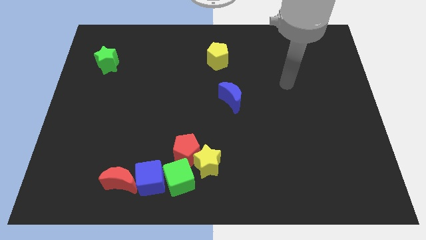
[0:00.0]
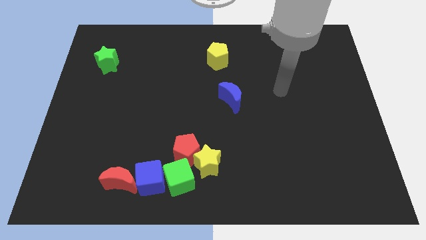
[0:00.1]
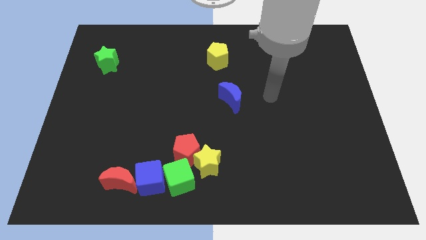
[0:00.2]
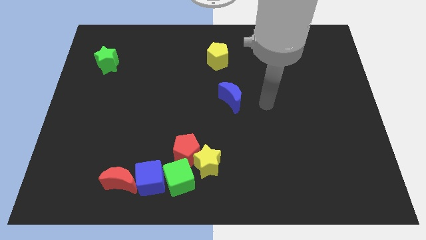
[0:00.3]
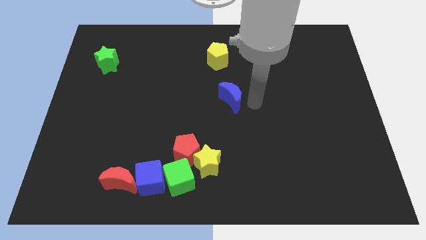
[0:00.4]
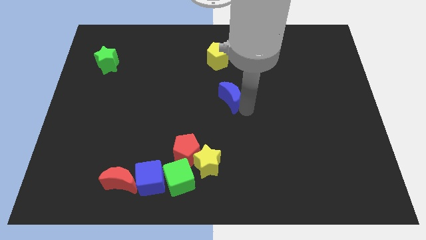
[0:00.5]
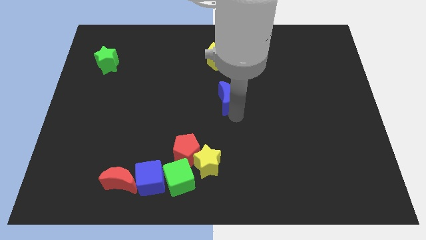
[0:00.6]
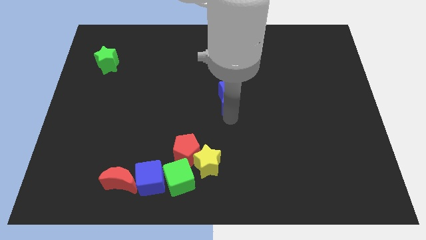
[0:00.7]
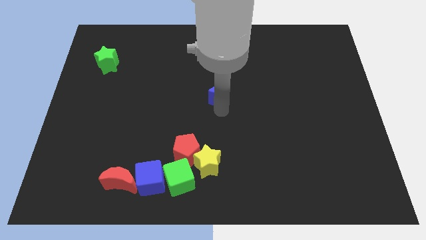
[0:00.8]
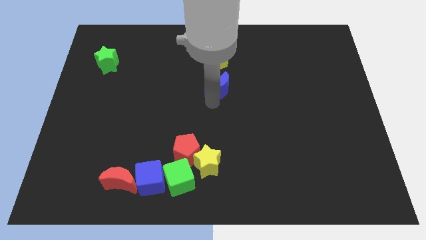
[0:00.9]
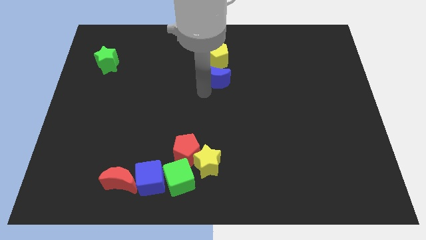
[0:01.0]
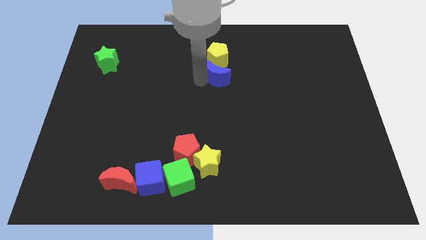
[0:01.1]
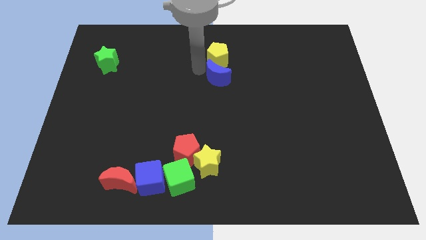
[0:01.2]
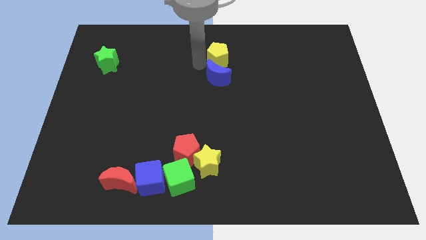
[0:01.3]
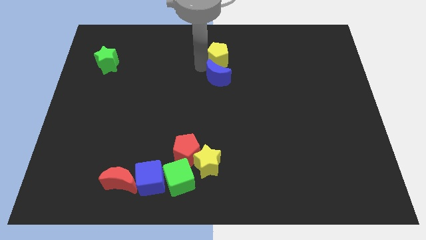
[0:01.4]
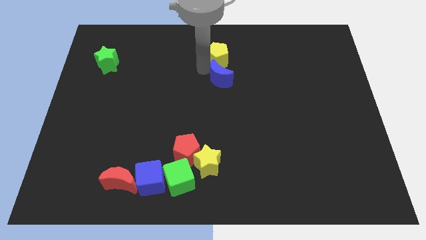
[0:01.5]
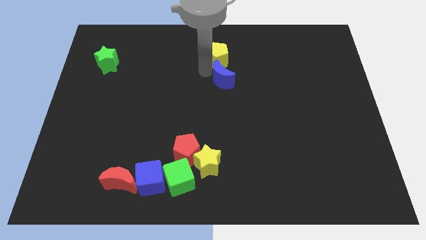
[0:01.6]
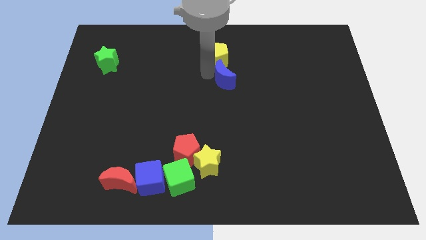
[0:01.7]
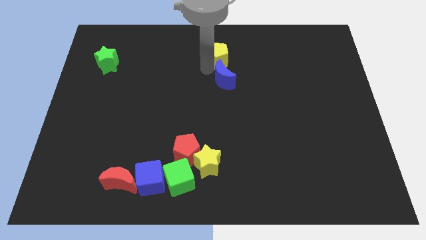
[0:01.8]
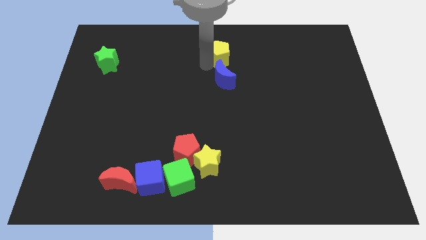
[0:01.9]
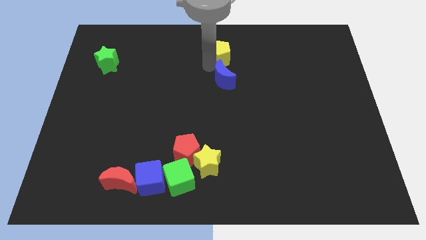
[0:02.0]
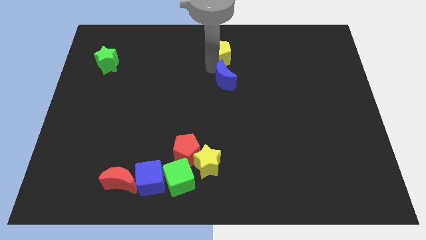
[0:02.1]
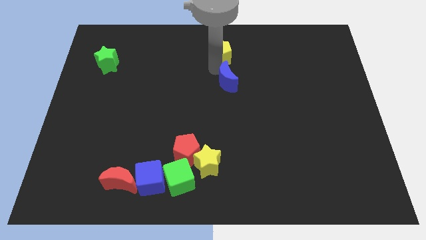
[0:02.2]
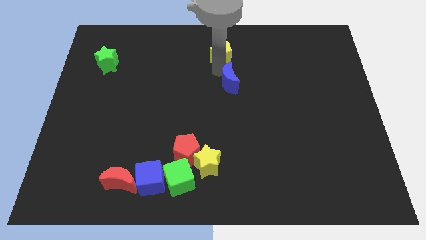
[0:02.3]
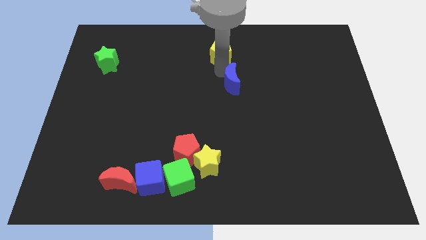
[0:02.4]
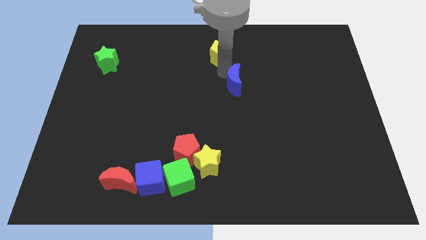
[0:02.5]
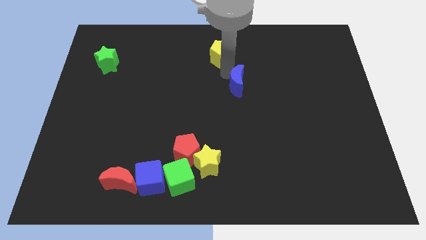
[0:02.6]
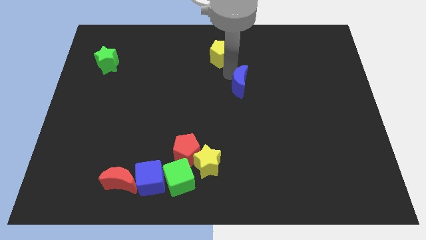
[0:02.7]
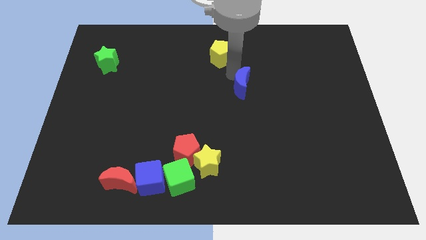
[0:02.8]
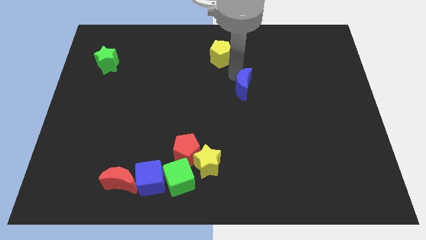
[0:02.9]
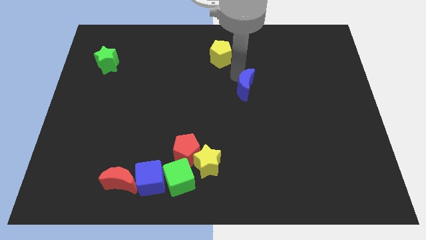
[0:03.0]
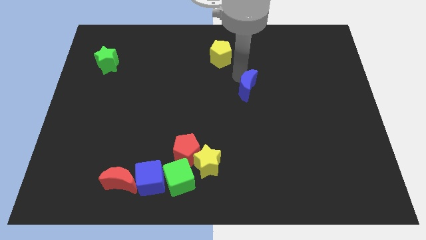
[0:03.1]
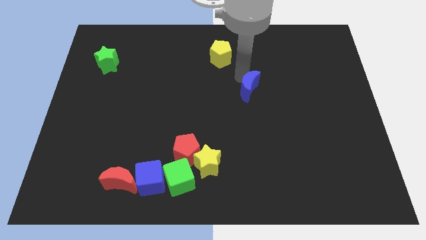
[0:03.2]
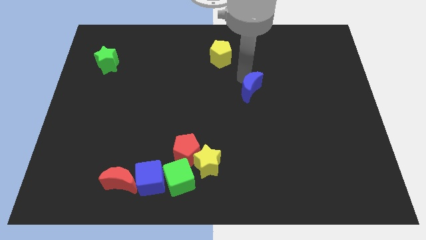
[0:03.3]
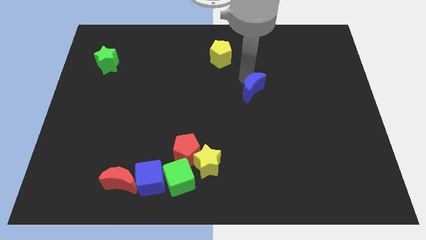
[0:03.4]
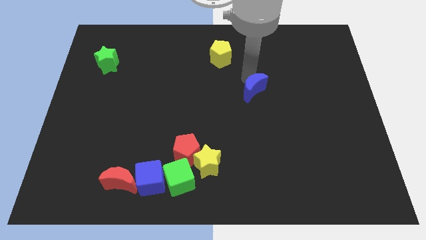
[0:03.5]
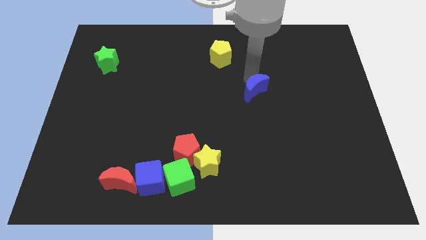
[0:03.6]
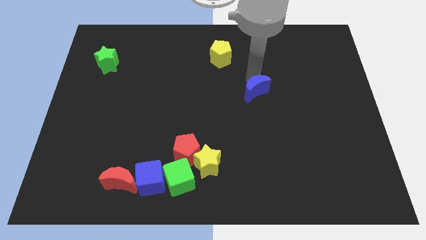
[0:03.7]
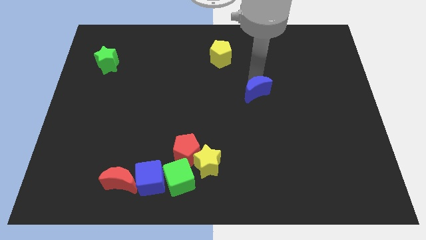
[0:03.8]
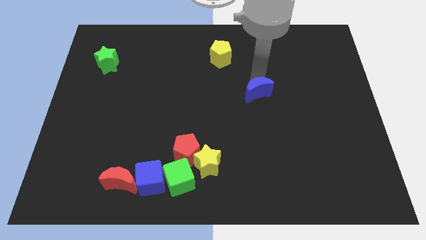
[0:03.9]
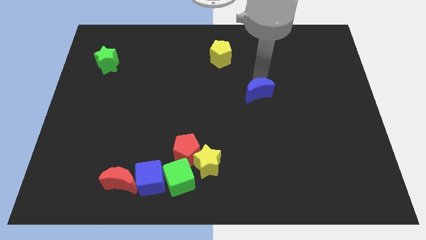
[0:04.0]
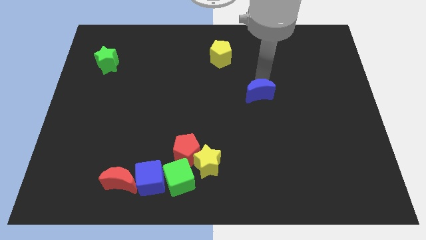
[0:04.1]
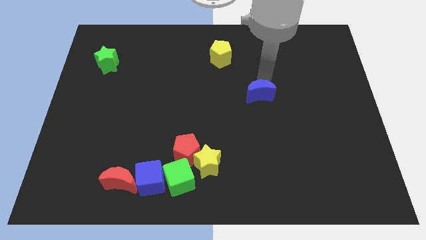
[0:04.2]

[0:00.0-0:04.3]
move the blue moon slightly right

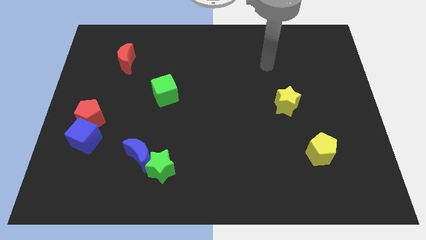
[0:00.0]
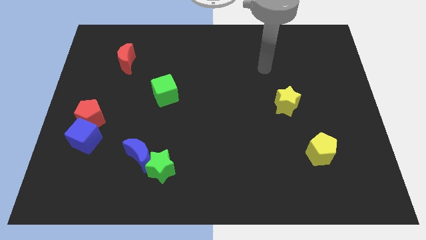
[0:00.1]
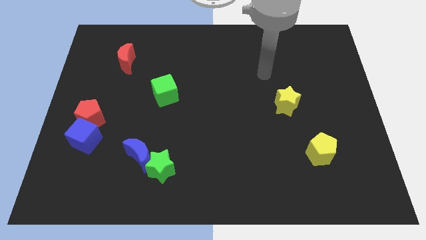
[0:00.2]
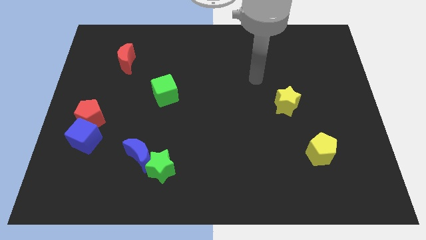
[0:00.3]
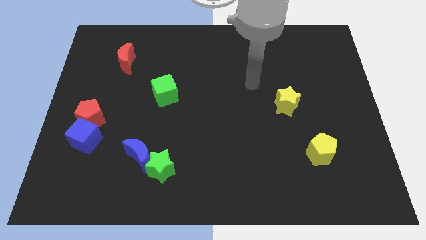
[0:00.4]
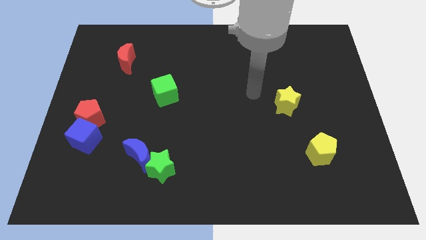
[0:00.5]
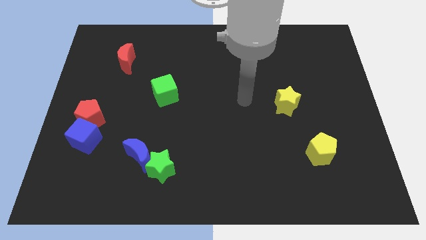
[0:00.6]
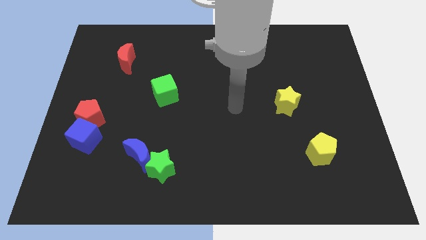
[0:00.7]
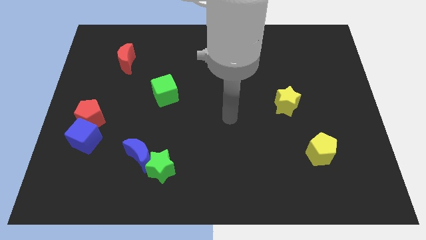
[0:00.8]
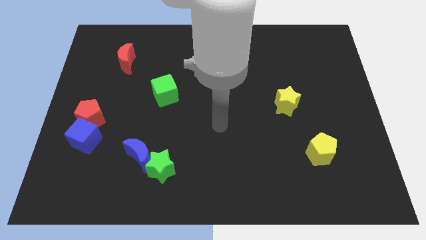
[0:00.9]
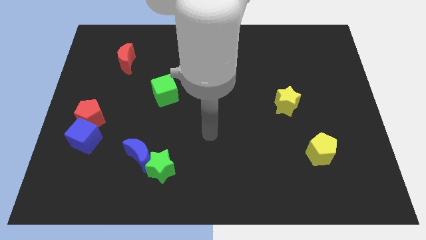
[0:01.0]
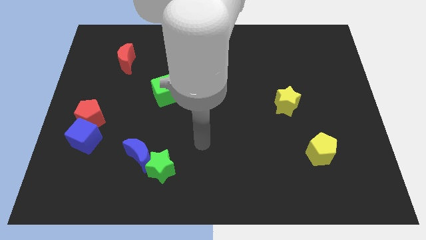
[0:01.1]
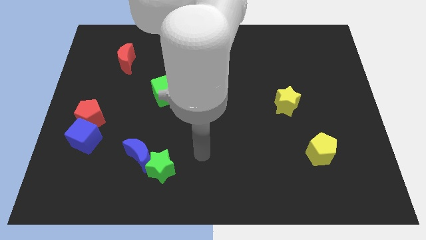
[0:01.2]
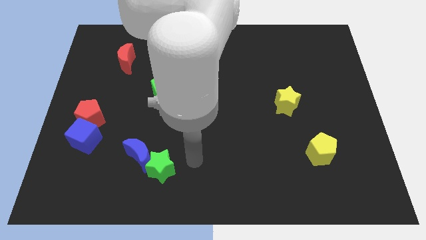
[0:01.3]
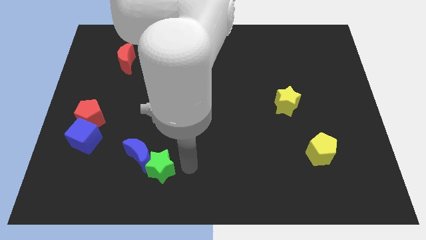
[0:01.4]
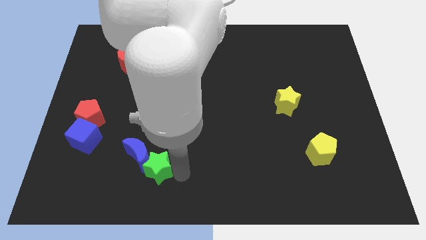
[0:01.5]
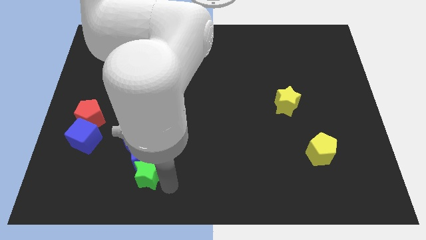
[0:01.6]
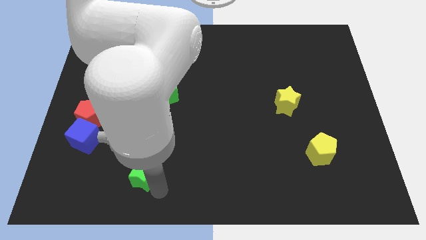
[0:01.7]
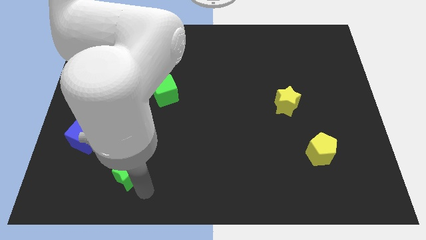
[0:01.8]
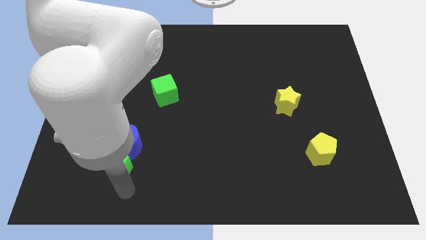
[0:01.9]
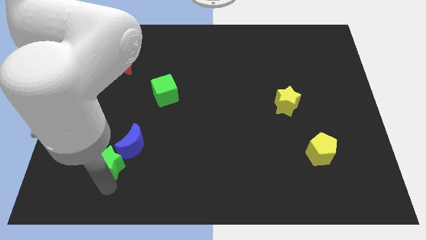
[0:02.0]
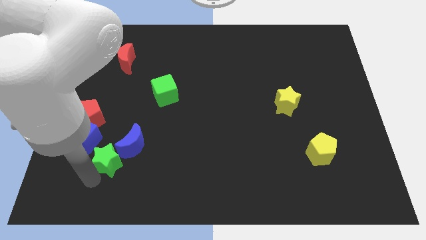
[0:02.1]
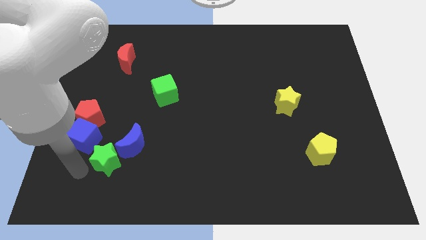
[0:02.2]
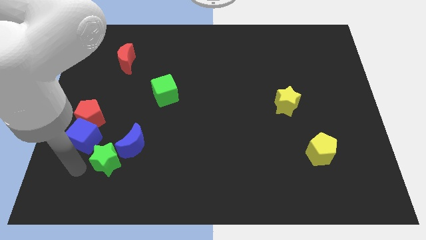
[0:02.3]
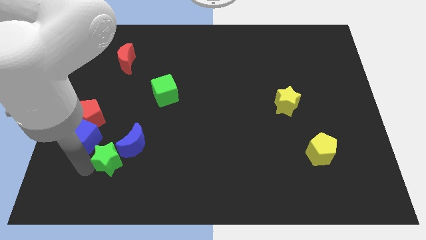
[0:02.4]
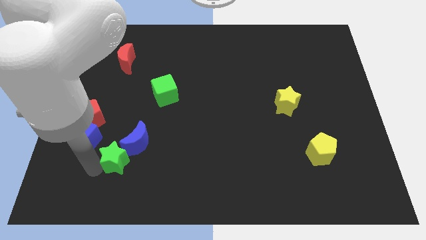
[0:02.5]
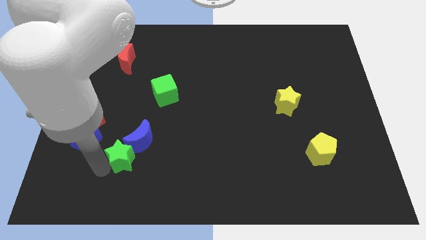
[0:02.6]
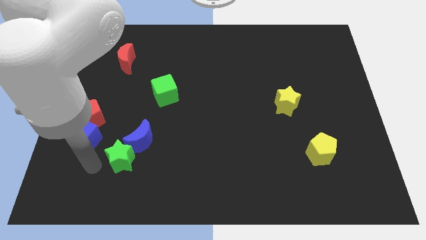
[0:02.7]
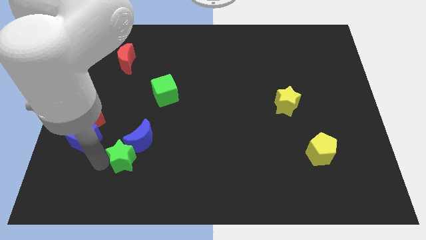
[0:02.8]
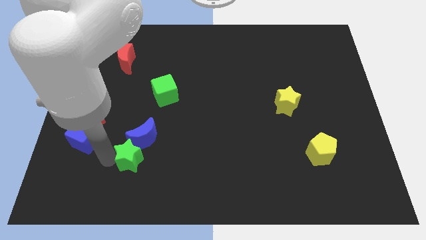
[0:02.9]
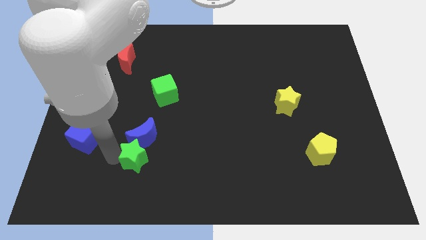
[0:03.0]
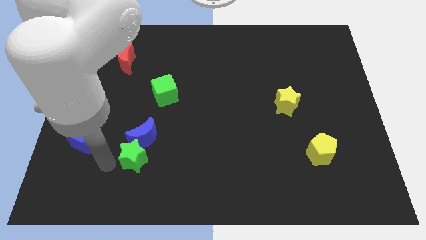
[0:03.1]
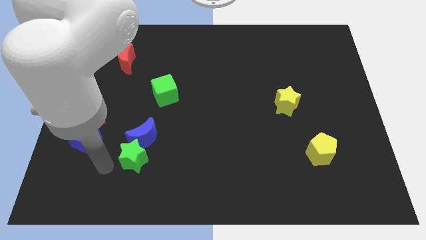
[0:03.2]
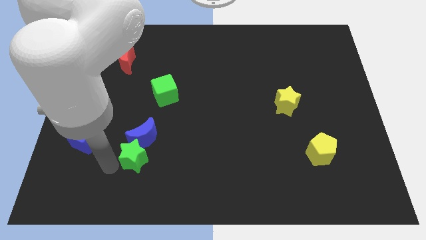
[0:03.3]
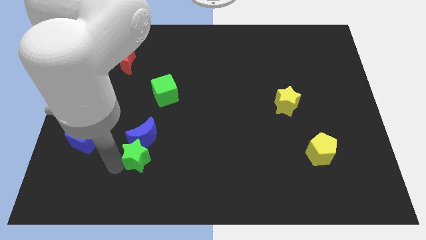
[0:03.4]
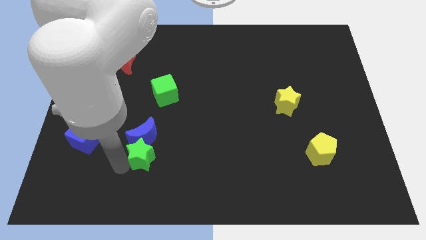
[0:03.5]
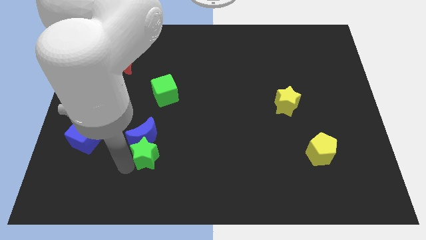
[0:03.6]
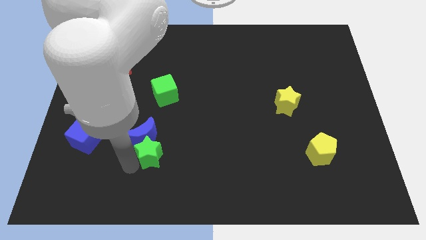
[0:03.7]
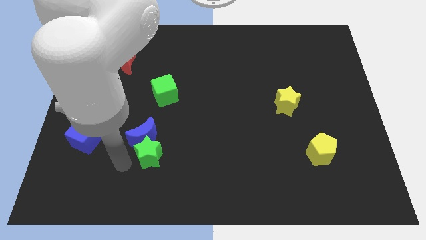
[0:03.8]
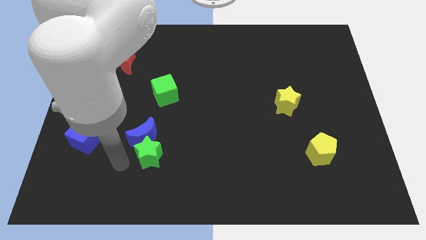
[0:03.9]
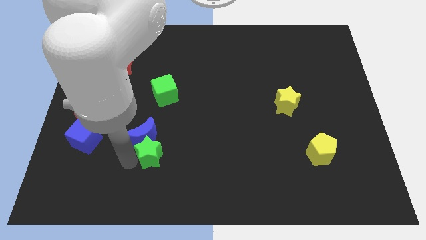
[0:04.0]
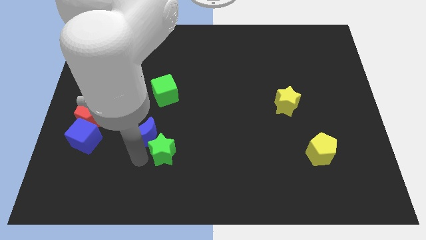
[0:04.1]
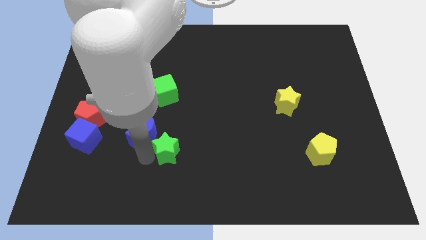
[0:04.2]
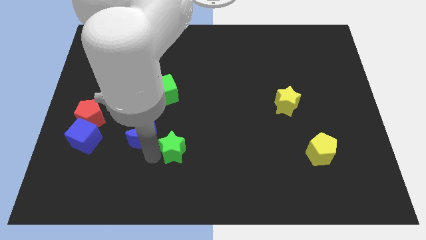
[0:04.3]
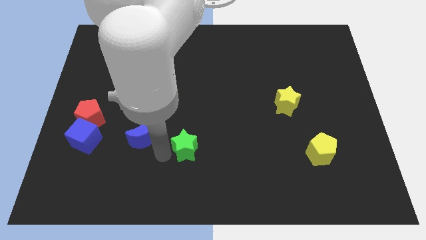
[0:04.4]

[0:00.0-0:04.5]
move the green star up and then right a little bit
